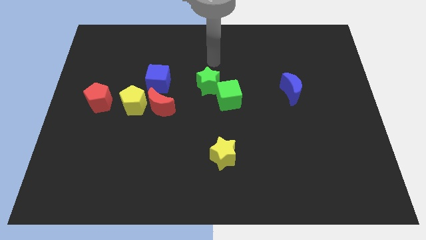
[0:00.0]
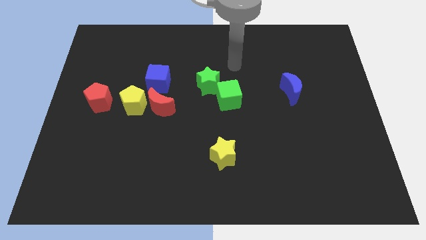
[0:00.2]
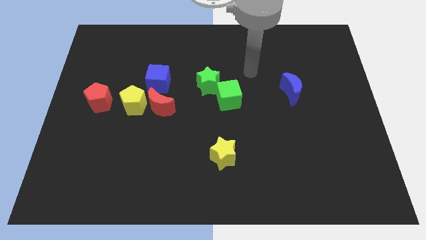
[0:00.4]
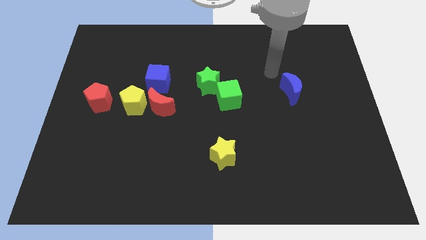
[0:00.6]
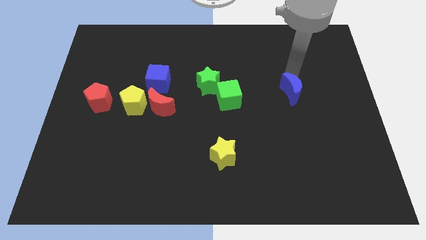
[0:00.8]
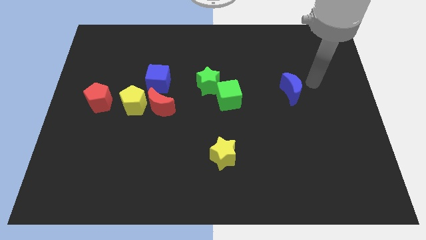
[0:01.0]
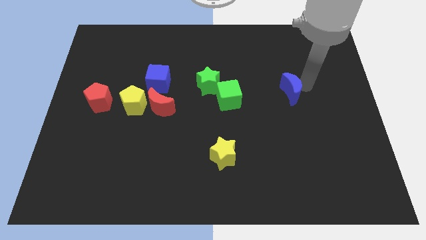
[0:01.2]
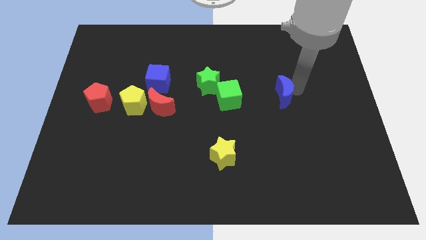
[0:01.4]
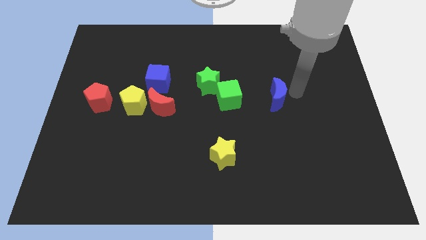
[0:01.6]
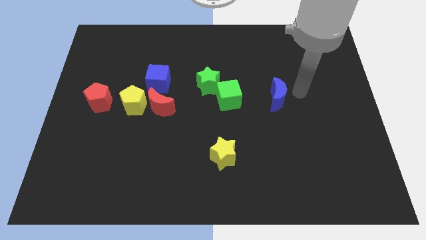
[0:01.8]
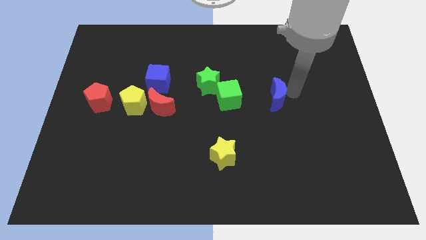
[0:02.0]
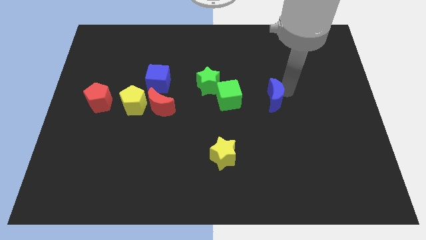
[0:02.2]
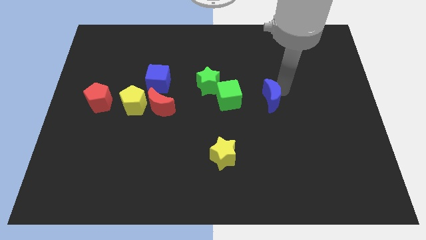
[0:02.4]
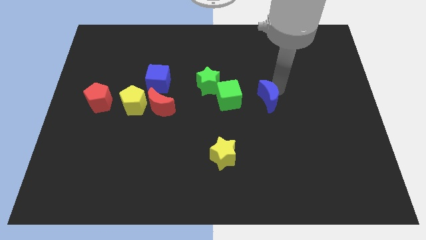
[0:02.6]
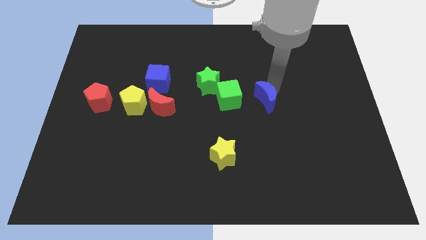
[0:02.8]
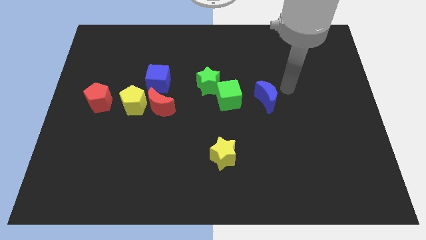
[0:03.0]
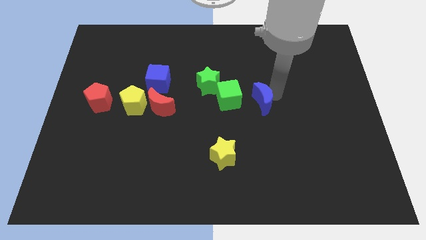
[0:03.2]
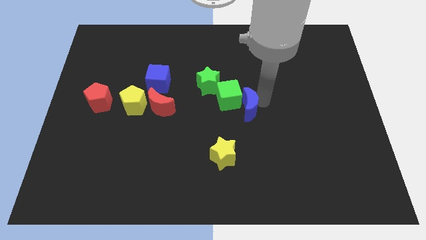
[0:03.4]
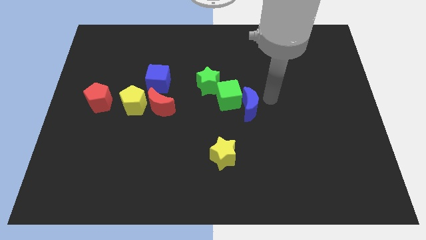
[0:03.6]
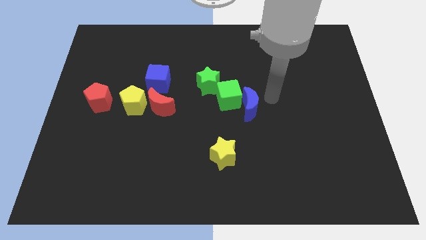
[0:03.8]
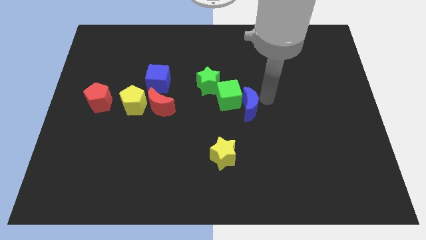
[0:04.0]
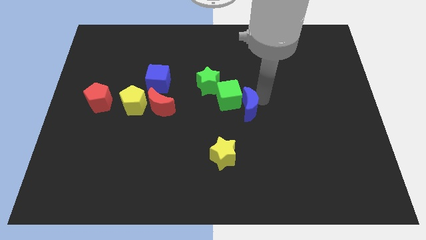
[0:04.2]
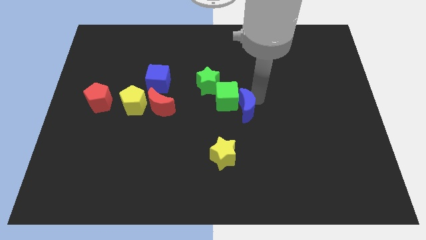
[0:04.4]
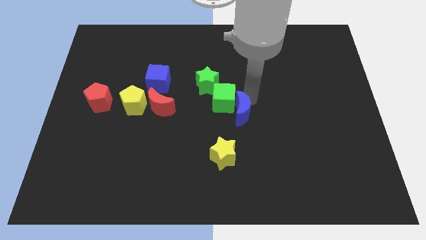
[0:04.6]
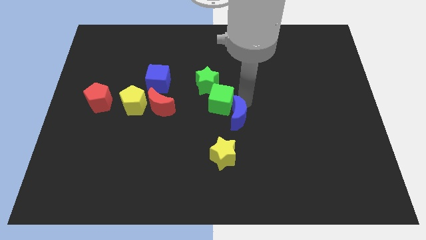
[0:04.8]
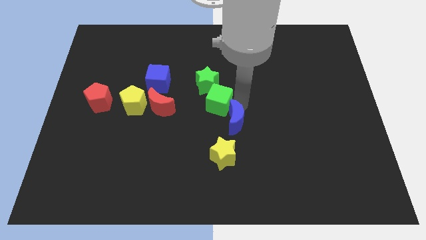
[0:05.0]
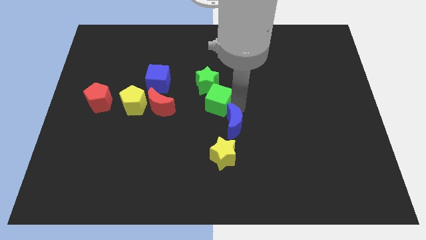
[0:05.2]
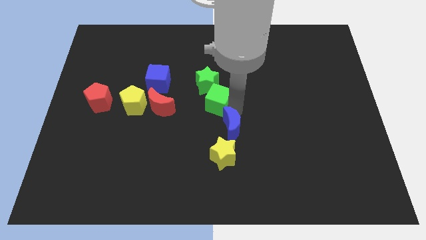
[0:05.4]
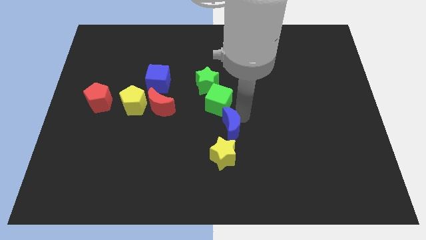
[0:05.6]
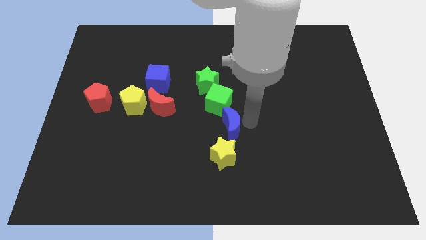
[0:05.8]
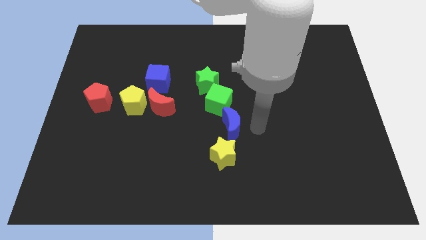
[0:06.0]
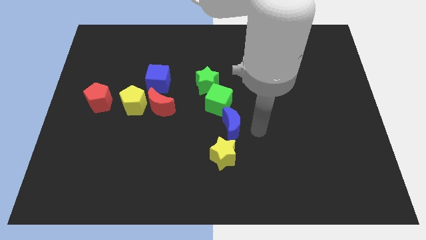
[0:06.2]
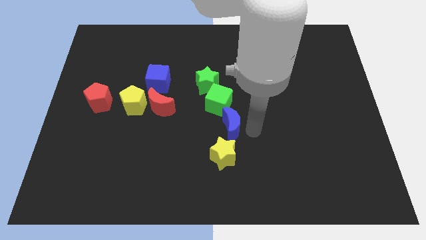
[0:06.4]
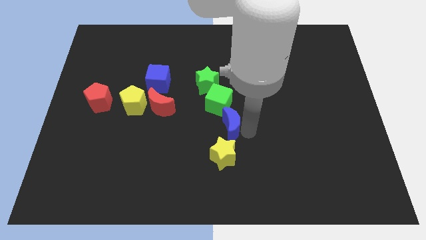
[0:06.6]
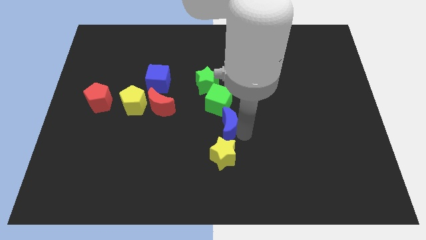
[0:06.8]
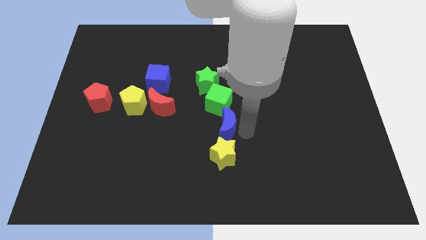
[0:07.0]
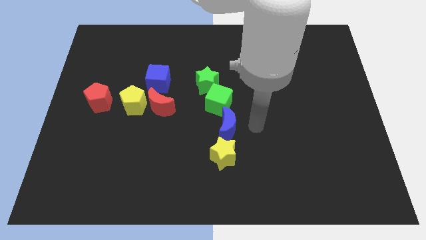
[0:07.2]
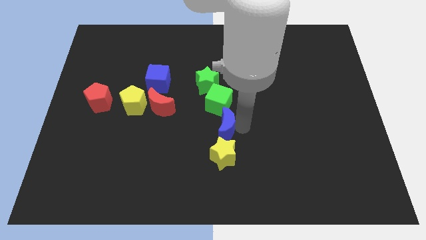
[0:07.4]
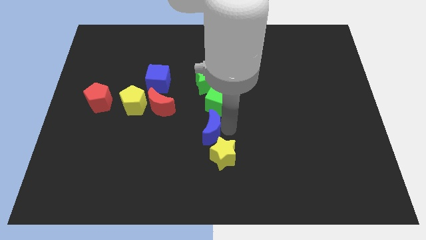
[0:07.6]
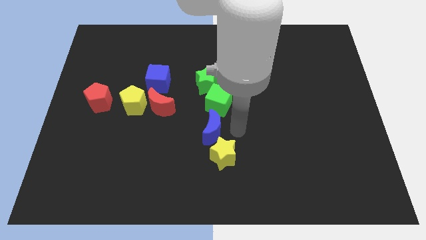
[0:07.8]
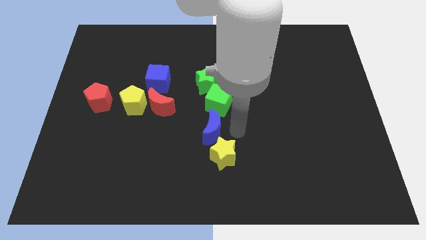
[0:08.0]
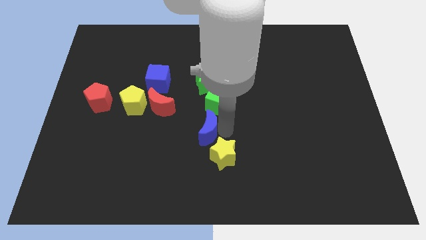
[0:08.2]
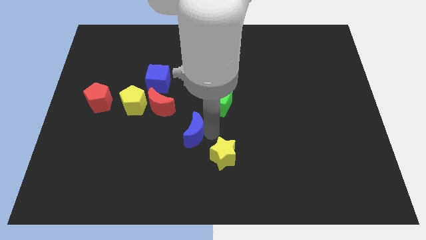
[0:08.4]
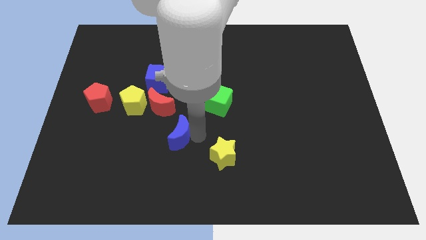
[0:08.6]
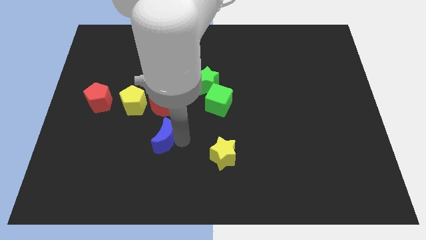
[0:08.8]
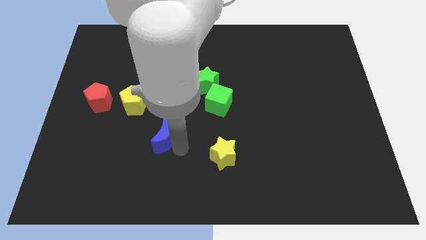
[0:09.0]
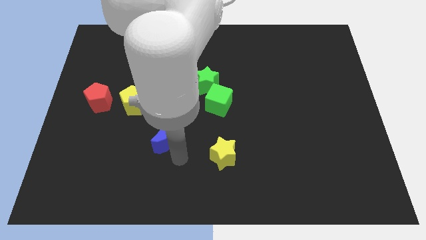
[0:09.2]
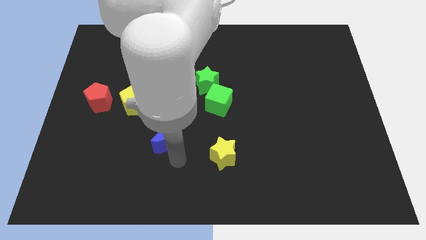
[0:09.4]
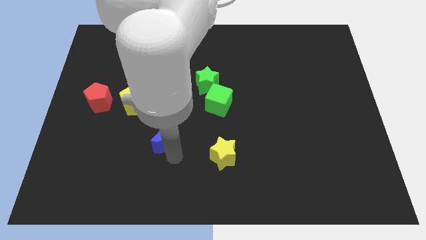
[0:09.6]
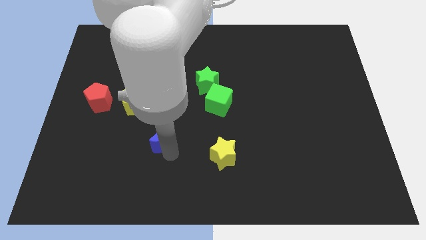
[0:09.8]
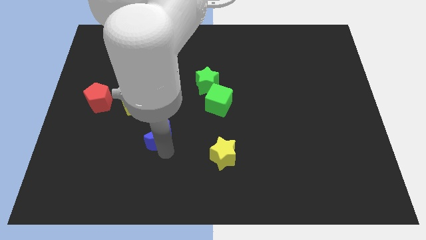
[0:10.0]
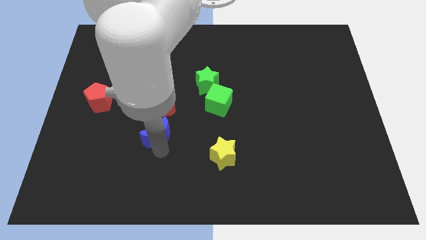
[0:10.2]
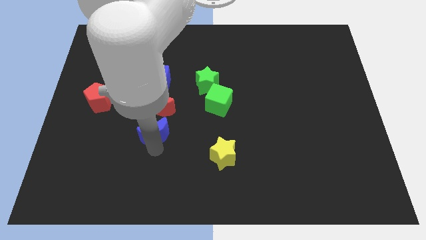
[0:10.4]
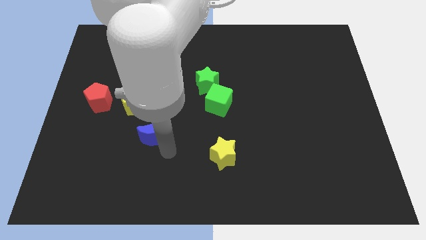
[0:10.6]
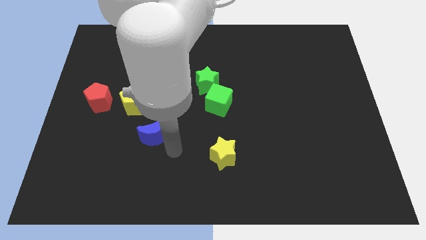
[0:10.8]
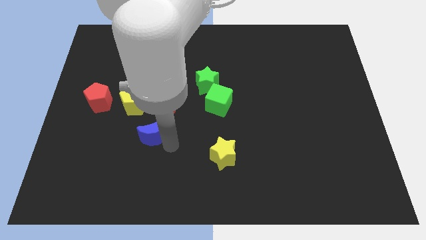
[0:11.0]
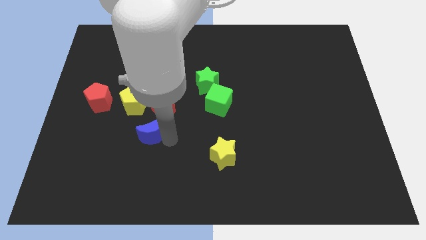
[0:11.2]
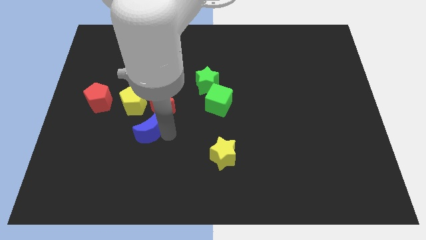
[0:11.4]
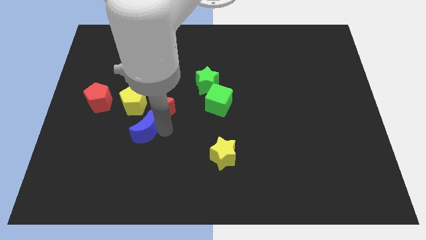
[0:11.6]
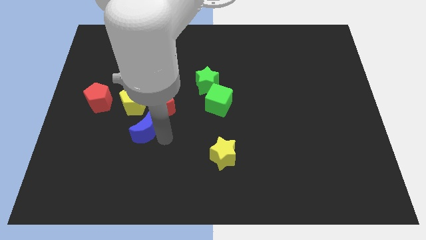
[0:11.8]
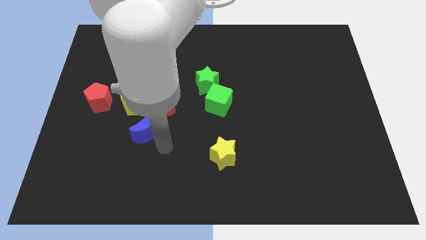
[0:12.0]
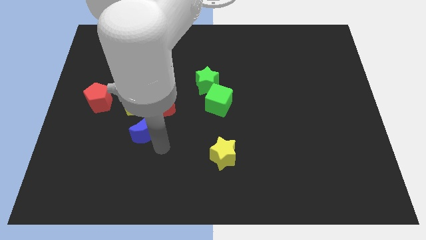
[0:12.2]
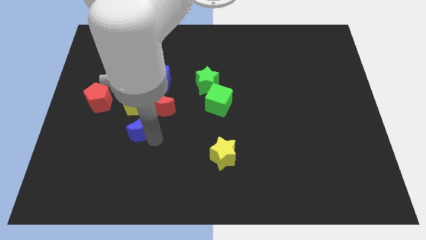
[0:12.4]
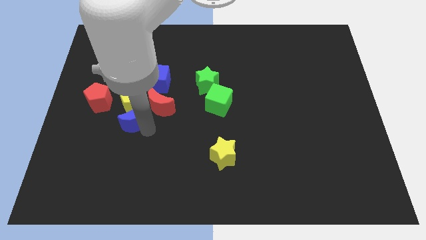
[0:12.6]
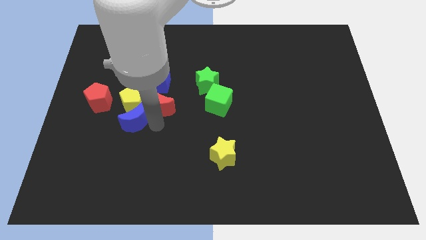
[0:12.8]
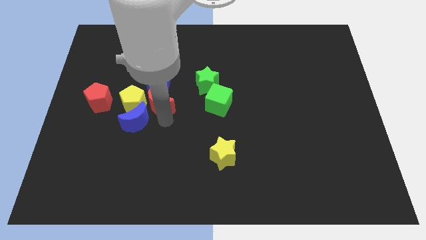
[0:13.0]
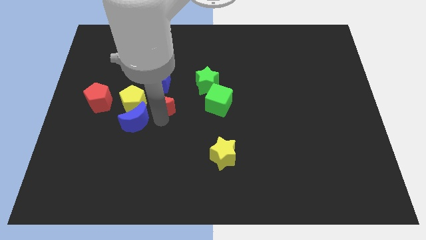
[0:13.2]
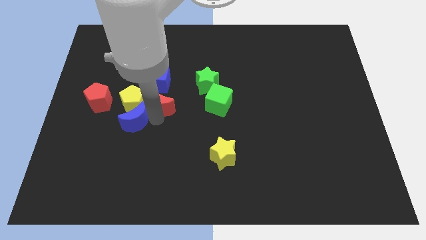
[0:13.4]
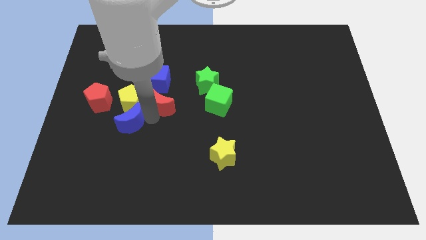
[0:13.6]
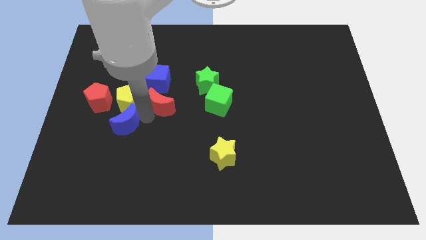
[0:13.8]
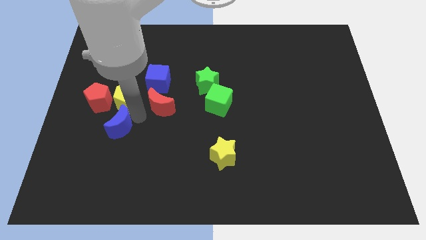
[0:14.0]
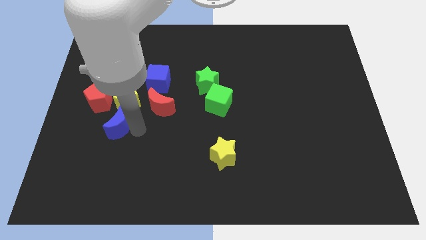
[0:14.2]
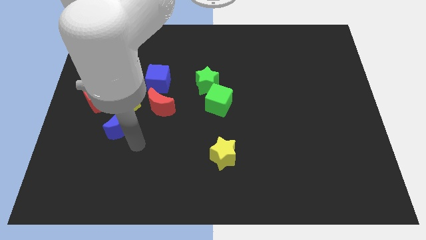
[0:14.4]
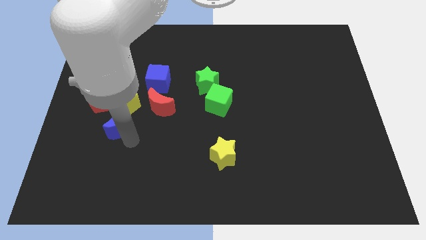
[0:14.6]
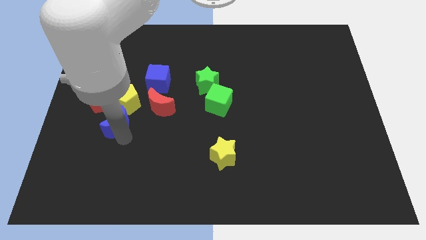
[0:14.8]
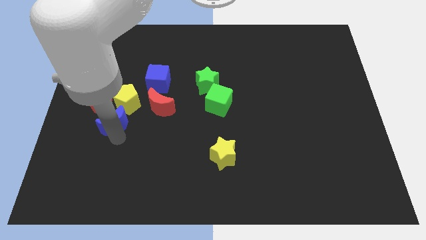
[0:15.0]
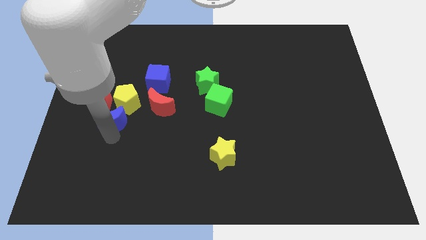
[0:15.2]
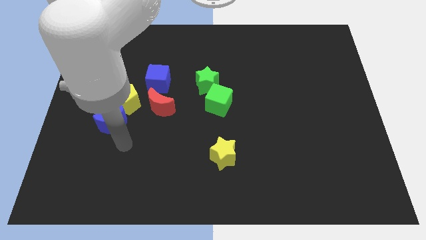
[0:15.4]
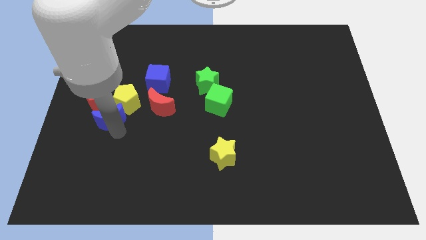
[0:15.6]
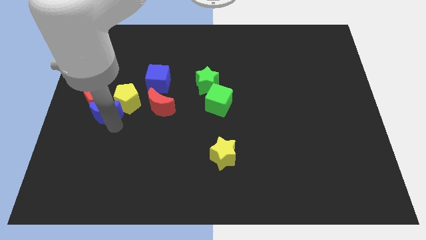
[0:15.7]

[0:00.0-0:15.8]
put the blue moon to the red pentagon
